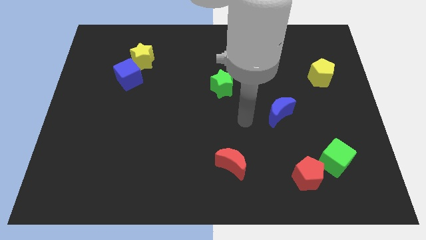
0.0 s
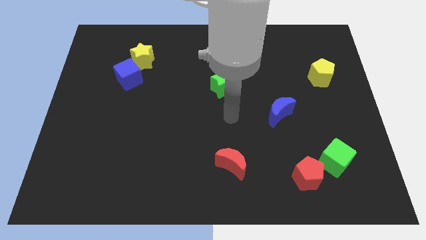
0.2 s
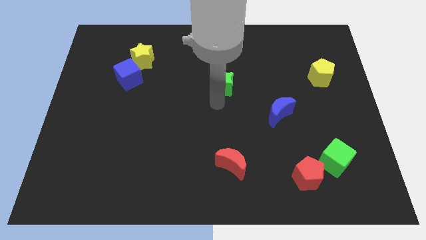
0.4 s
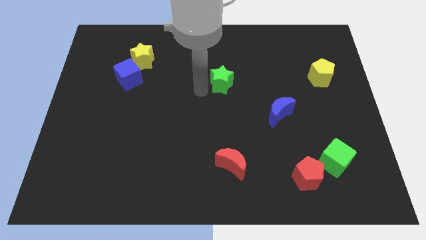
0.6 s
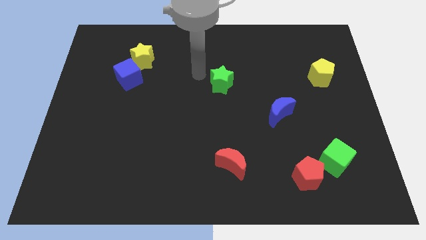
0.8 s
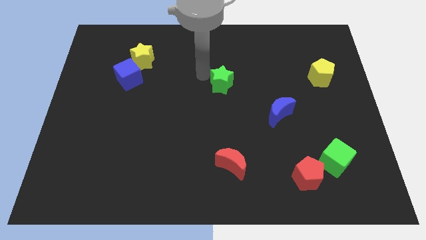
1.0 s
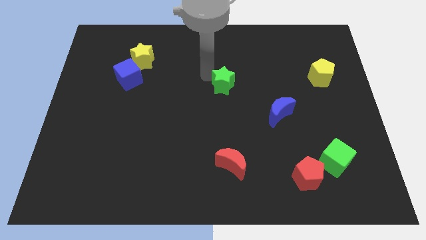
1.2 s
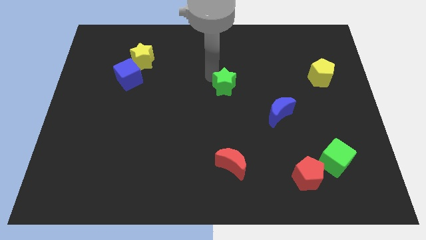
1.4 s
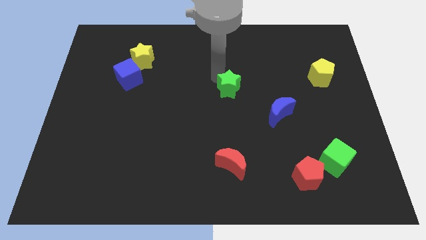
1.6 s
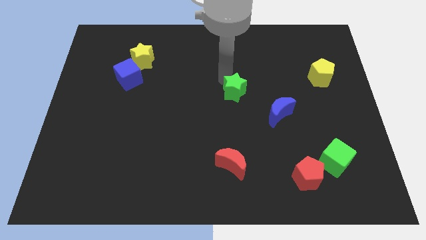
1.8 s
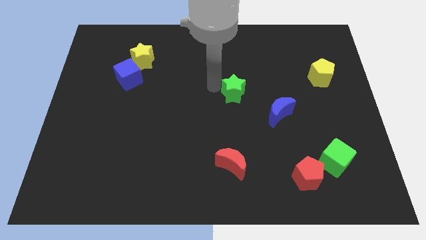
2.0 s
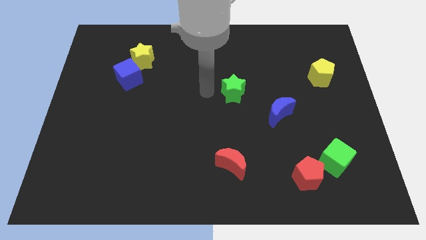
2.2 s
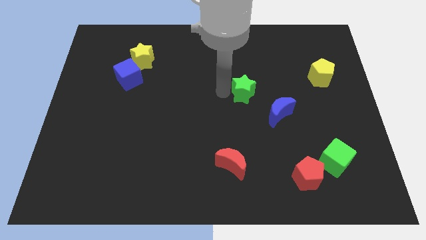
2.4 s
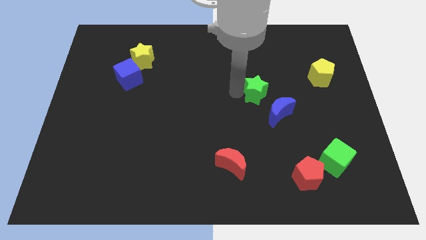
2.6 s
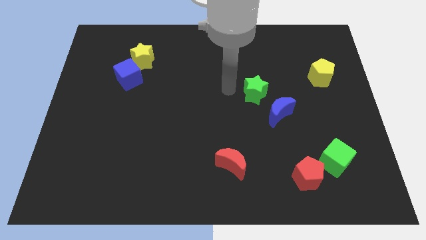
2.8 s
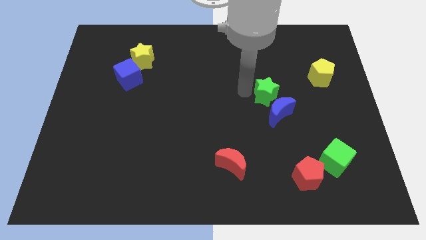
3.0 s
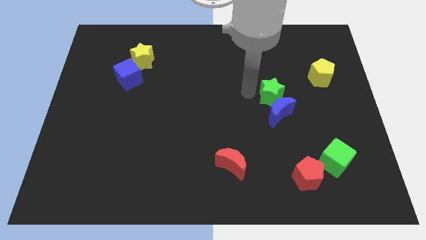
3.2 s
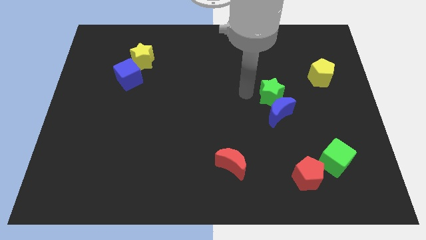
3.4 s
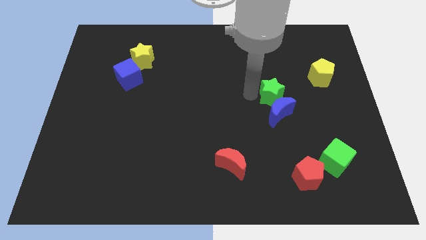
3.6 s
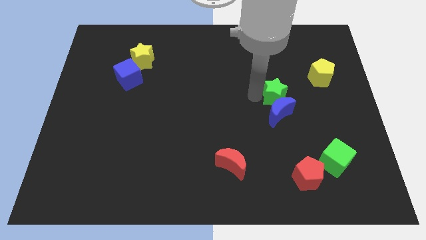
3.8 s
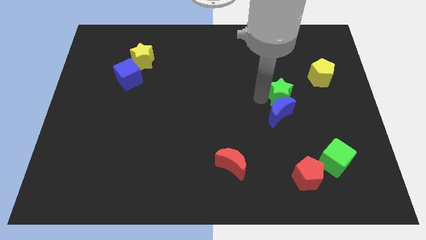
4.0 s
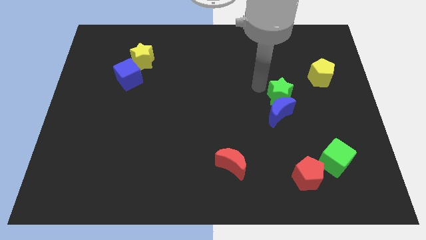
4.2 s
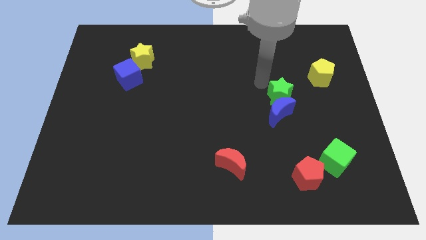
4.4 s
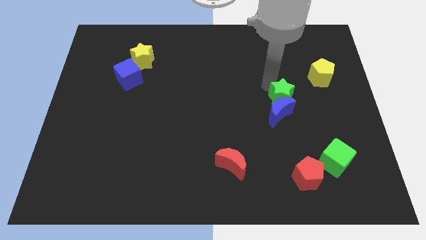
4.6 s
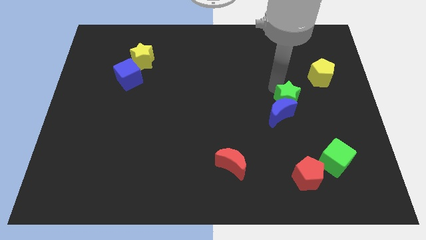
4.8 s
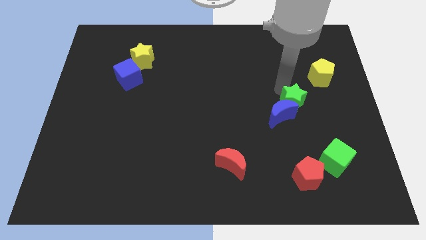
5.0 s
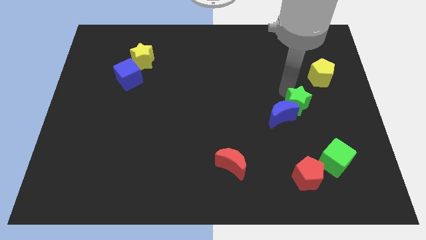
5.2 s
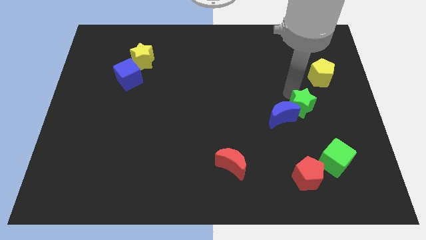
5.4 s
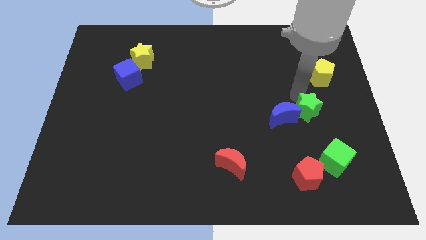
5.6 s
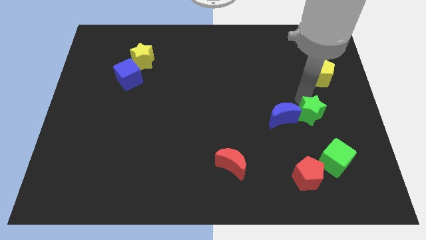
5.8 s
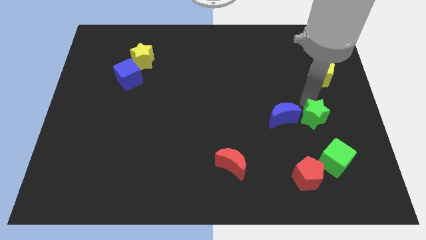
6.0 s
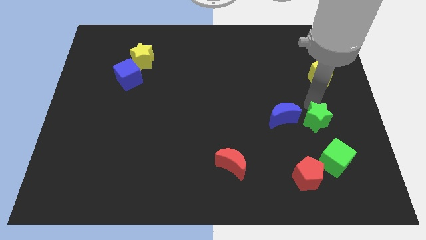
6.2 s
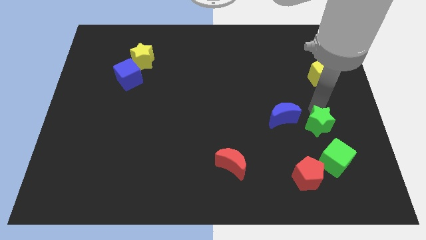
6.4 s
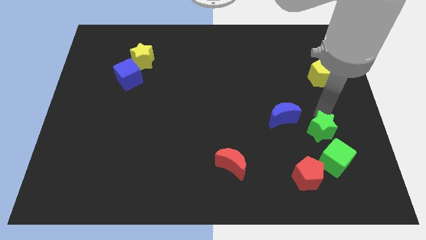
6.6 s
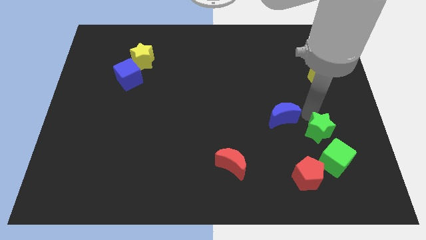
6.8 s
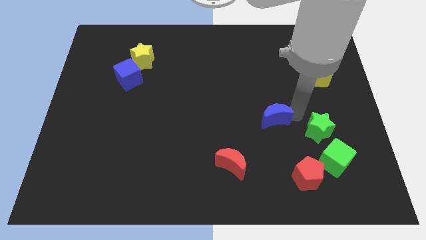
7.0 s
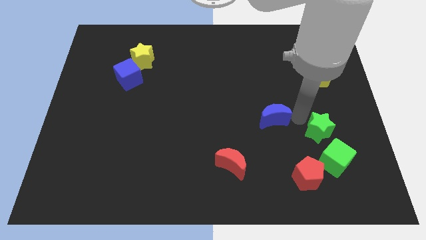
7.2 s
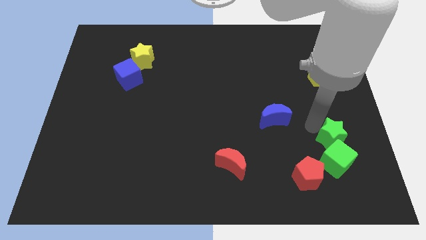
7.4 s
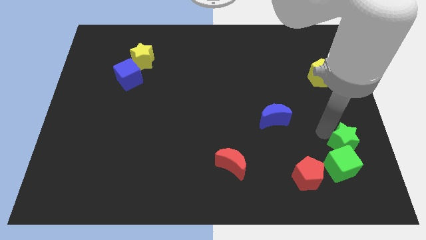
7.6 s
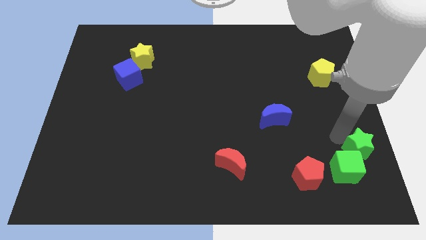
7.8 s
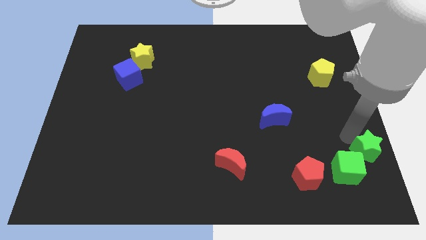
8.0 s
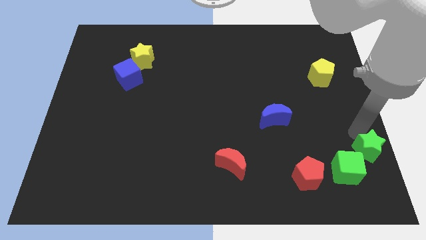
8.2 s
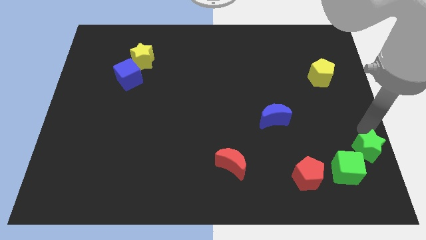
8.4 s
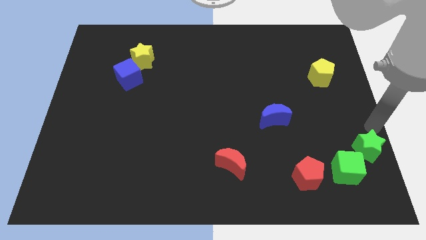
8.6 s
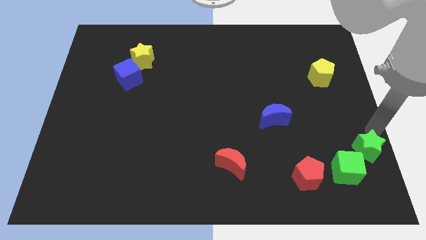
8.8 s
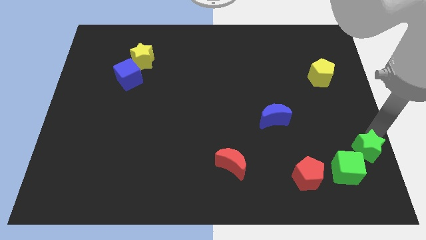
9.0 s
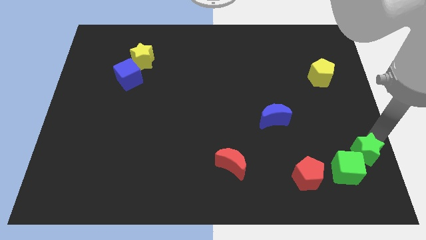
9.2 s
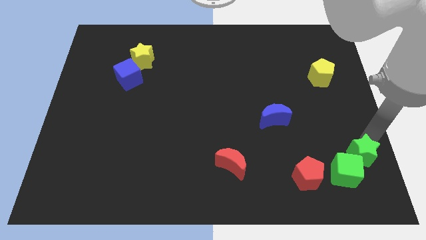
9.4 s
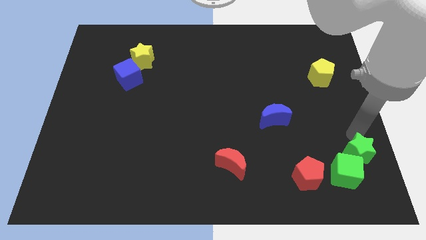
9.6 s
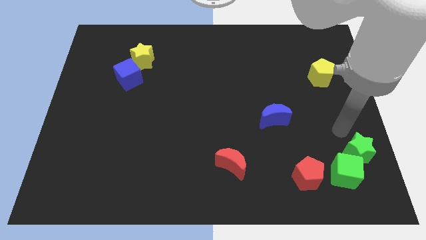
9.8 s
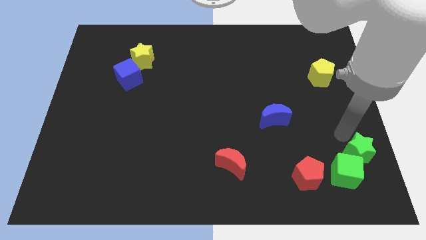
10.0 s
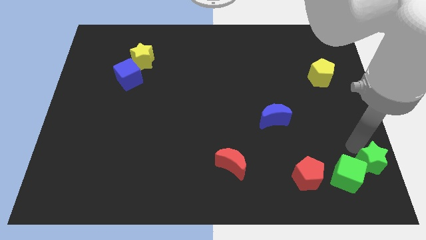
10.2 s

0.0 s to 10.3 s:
push the green star to the bottom right of the board

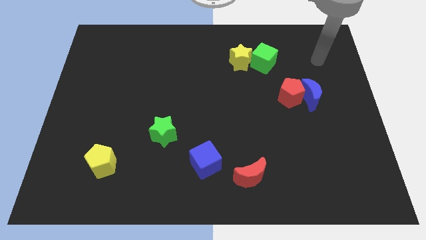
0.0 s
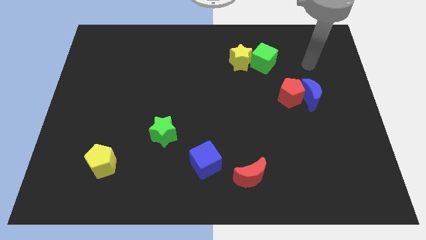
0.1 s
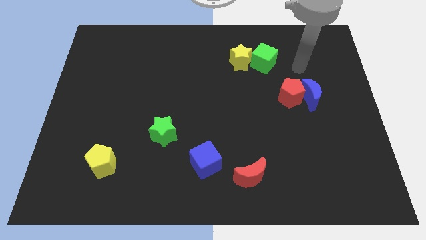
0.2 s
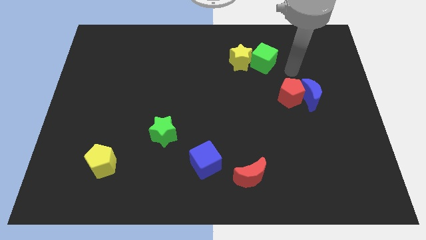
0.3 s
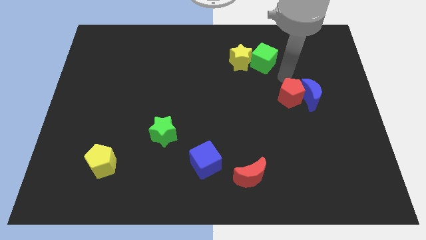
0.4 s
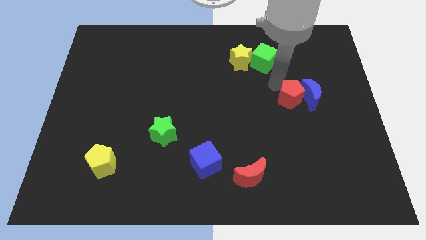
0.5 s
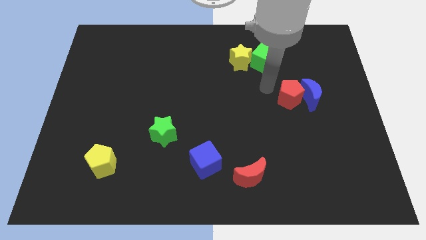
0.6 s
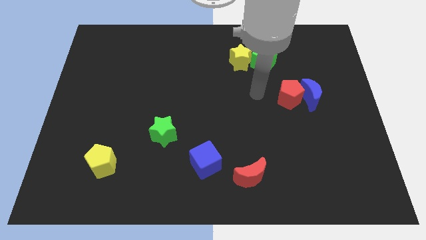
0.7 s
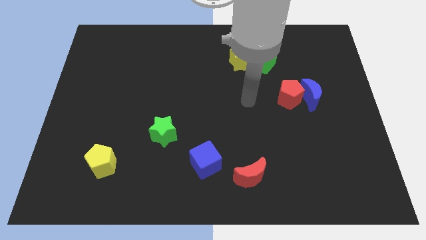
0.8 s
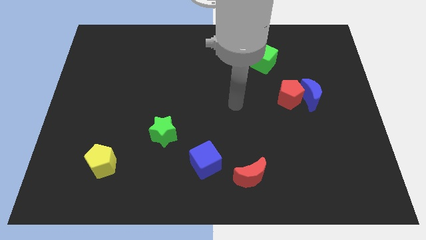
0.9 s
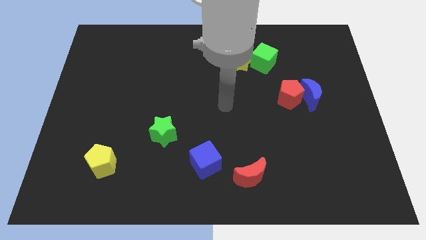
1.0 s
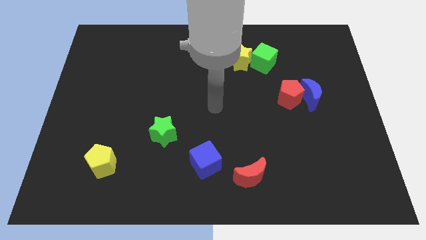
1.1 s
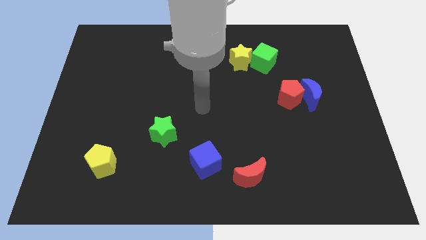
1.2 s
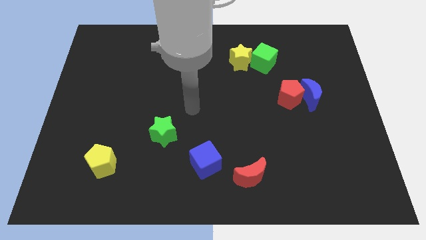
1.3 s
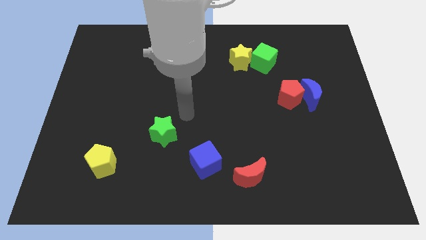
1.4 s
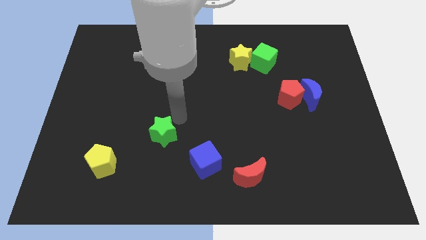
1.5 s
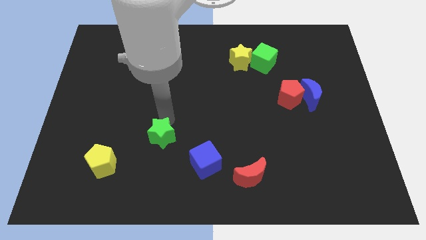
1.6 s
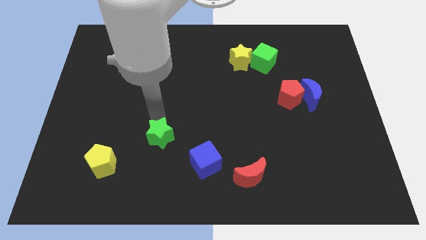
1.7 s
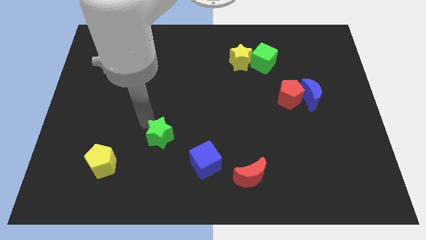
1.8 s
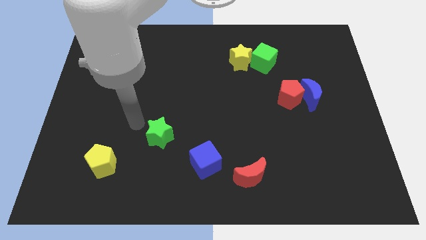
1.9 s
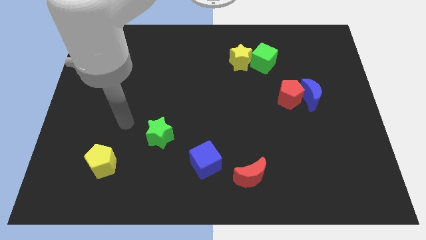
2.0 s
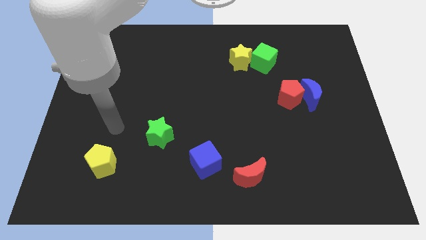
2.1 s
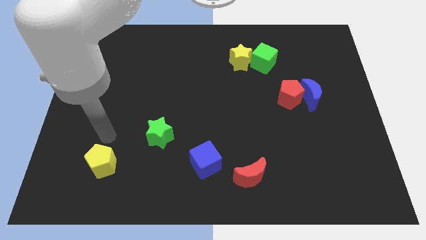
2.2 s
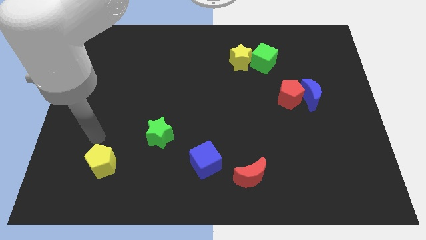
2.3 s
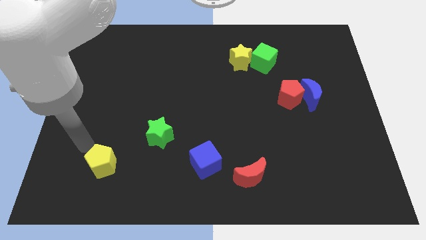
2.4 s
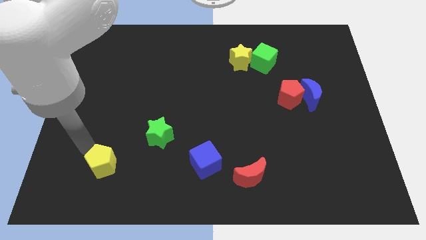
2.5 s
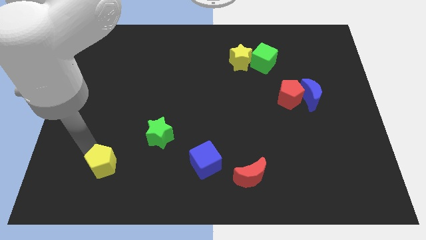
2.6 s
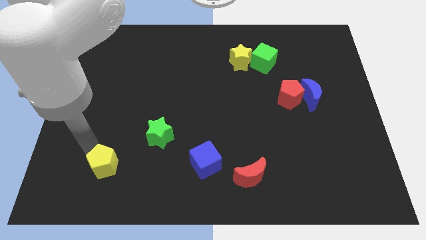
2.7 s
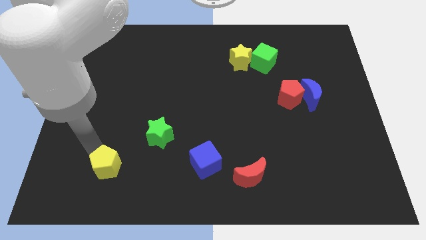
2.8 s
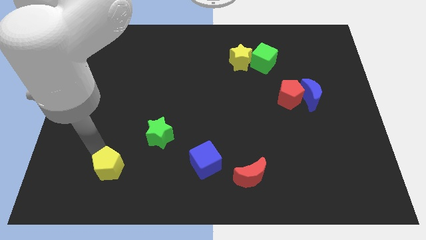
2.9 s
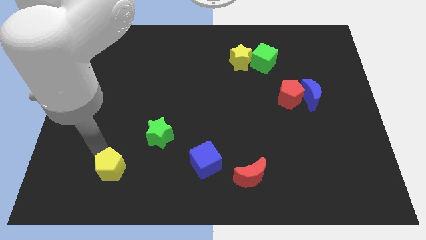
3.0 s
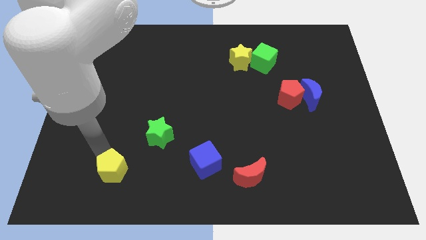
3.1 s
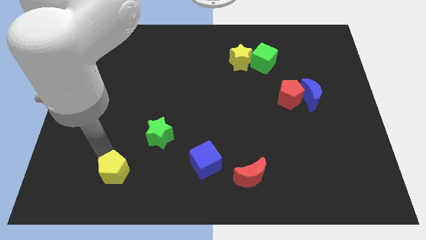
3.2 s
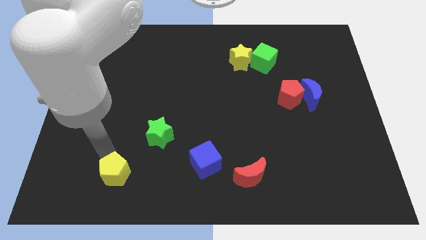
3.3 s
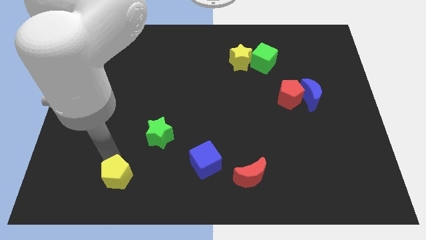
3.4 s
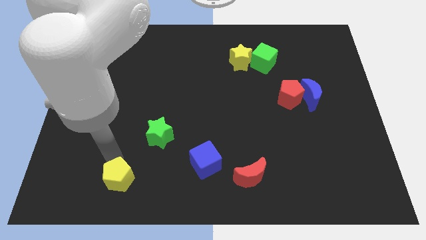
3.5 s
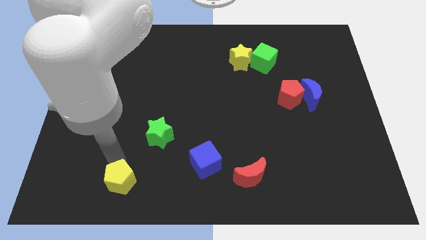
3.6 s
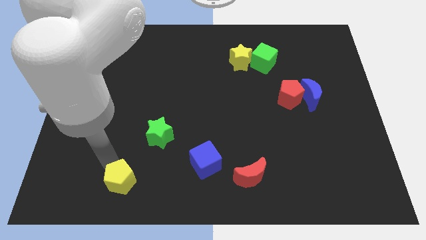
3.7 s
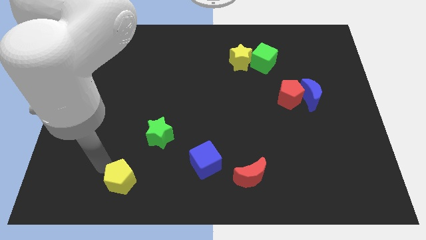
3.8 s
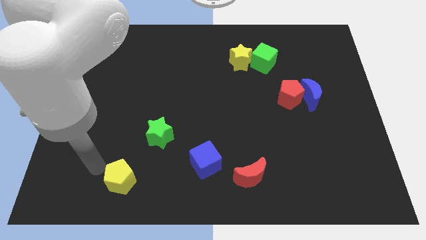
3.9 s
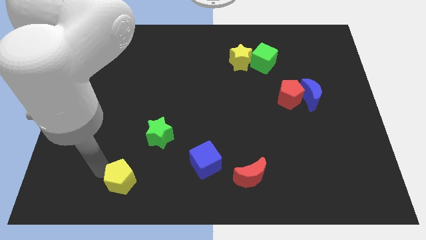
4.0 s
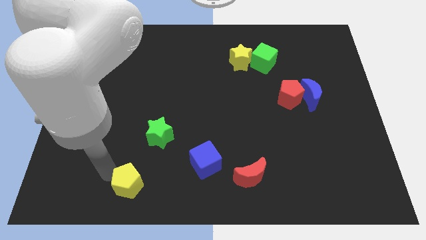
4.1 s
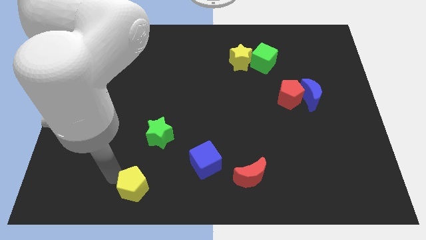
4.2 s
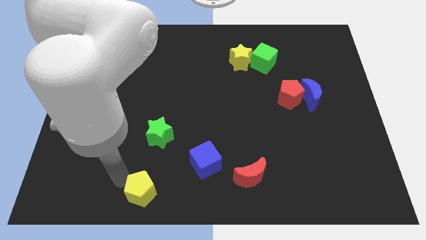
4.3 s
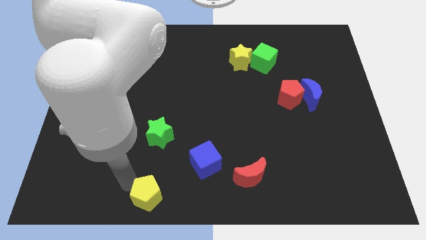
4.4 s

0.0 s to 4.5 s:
push the yellow pentagon to the bottom
